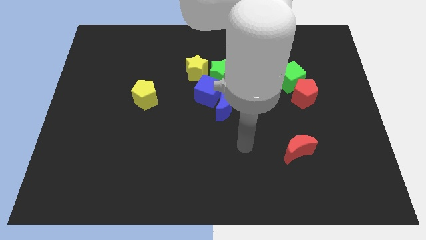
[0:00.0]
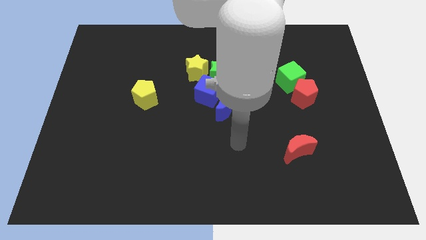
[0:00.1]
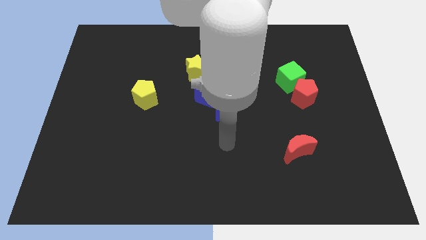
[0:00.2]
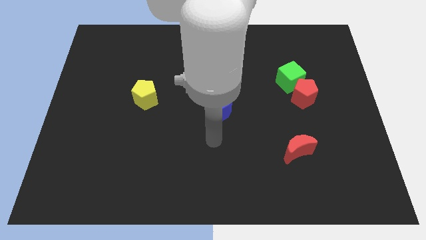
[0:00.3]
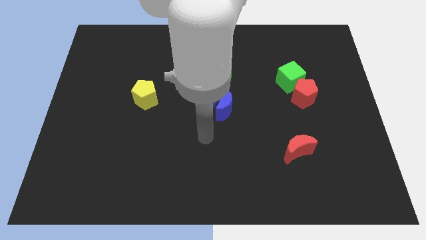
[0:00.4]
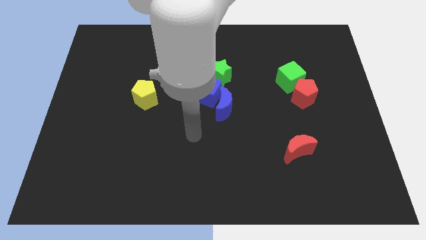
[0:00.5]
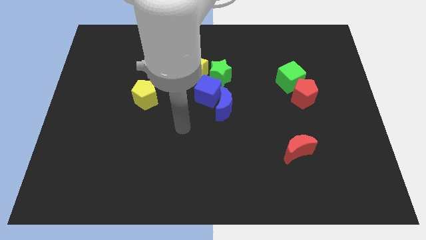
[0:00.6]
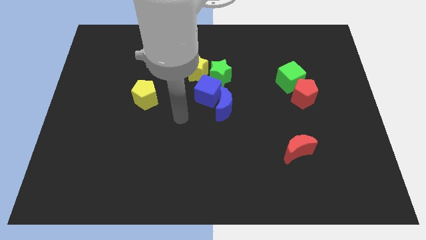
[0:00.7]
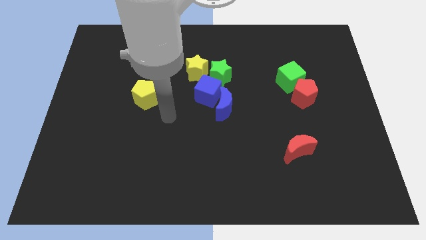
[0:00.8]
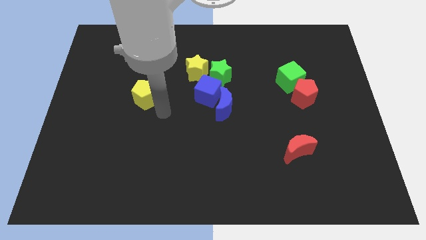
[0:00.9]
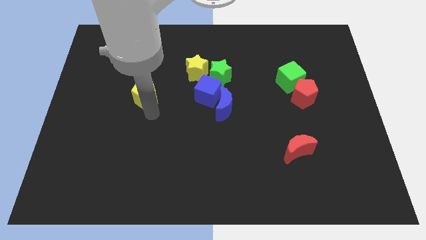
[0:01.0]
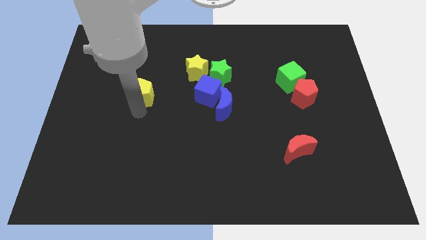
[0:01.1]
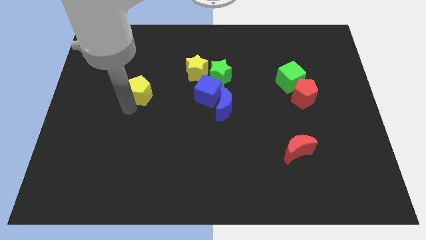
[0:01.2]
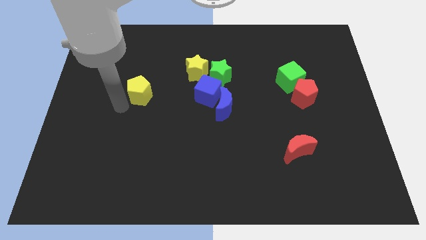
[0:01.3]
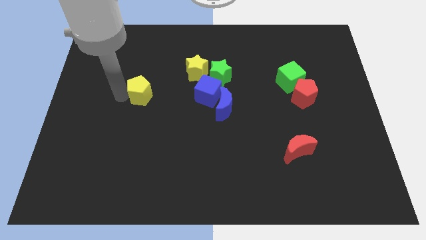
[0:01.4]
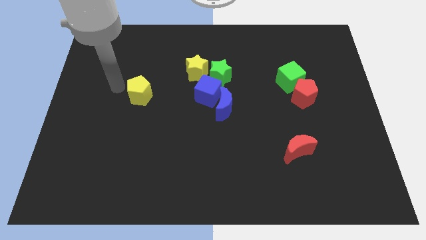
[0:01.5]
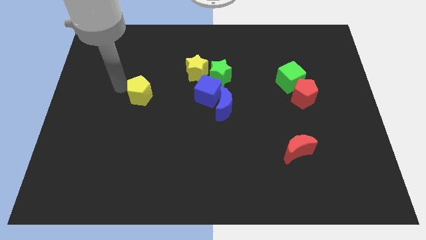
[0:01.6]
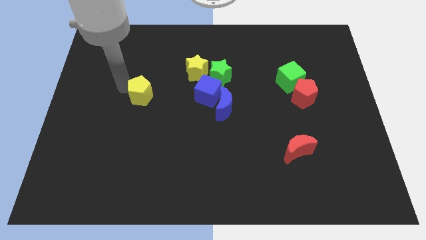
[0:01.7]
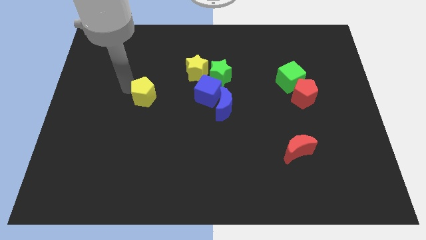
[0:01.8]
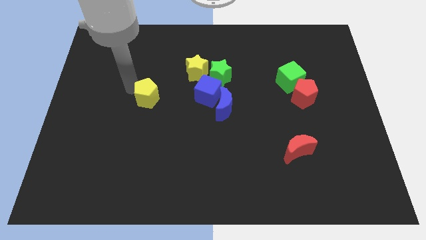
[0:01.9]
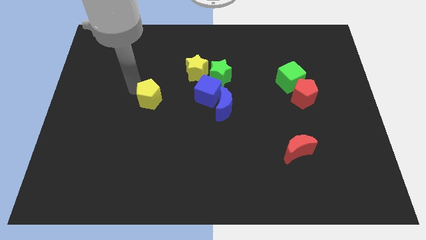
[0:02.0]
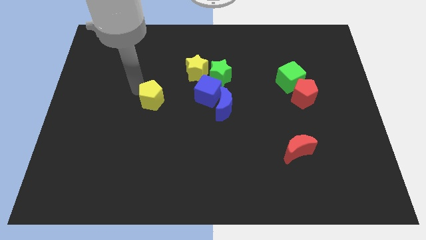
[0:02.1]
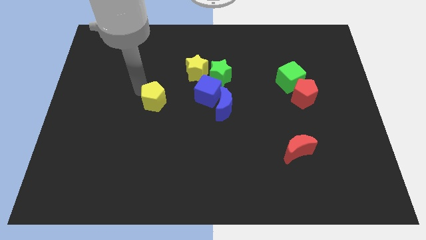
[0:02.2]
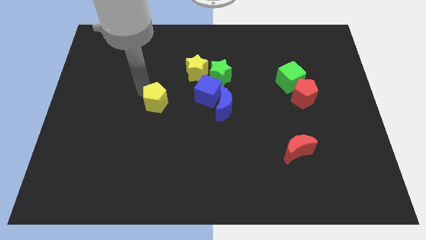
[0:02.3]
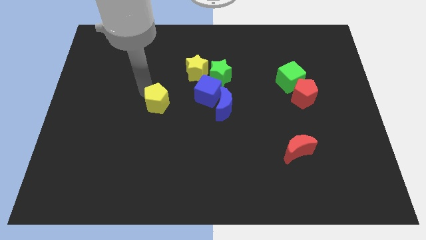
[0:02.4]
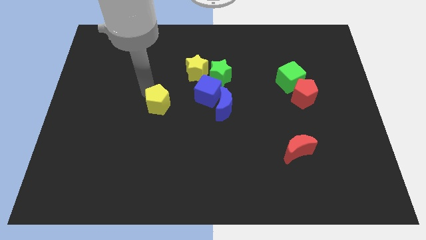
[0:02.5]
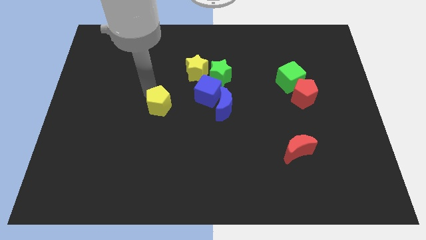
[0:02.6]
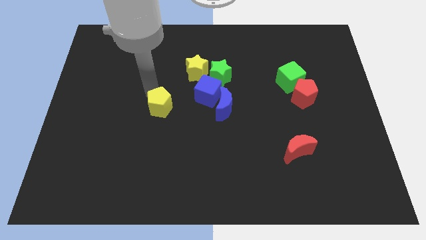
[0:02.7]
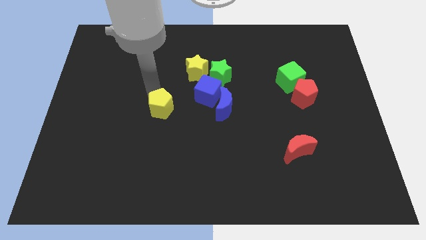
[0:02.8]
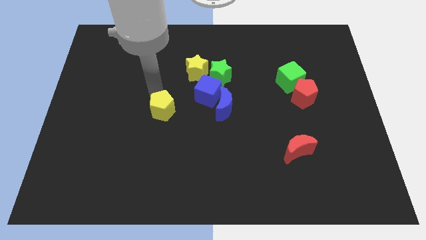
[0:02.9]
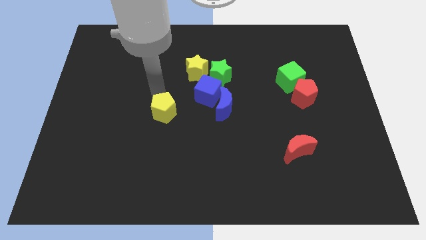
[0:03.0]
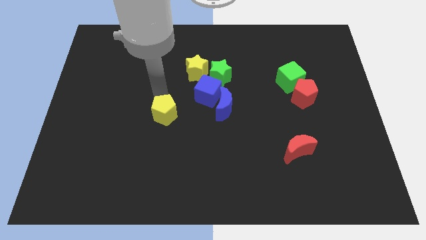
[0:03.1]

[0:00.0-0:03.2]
push the yellow pentagon diagonally downwards and to the right a little bit

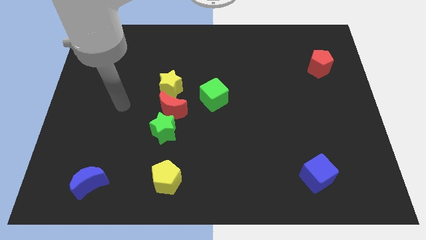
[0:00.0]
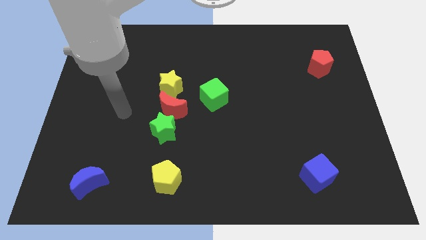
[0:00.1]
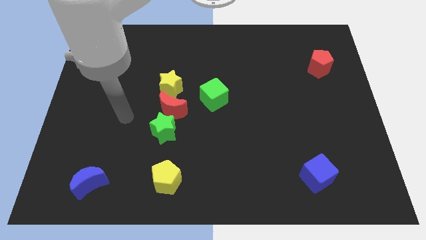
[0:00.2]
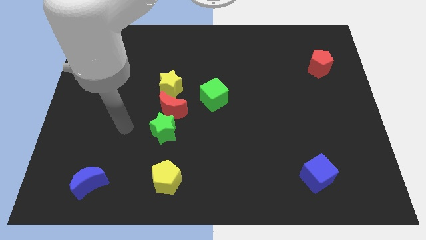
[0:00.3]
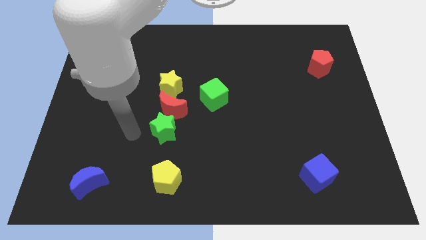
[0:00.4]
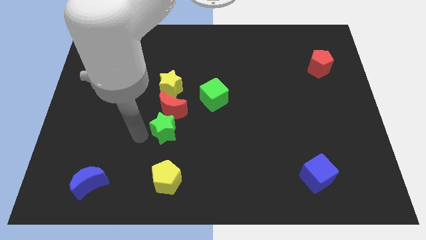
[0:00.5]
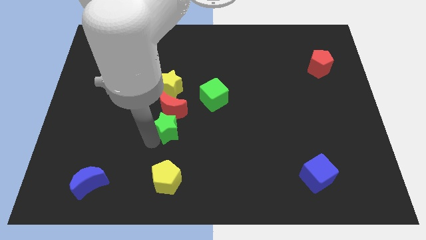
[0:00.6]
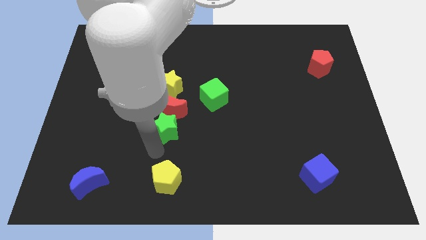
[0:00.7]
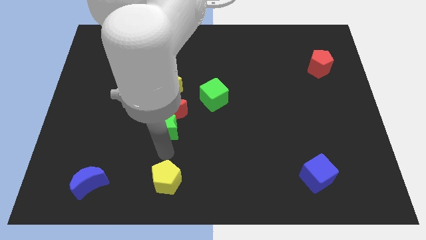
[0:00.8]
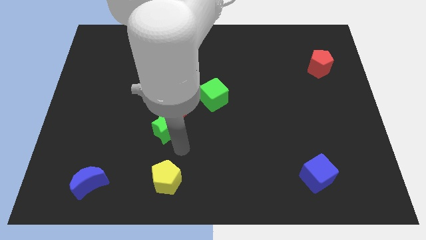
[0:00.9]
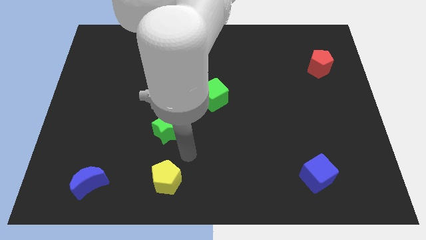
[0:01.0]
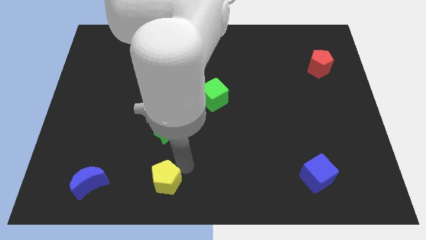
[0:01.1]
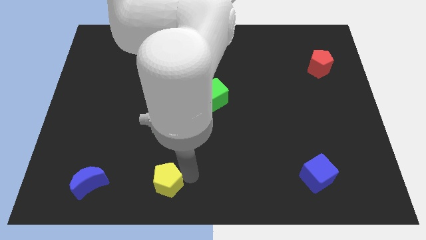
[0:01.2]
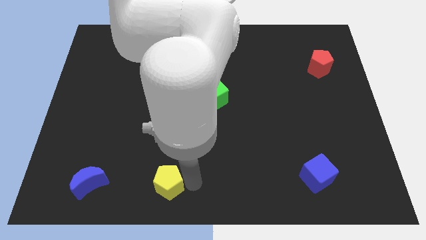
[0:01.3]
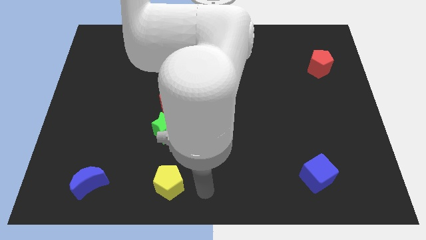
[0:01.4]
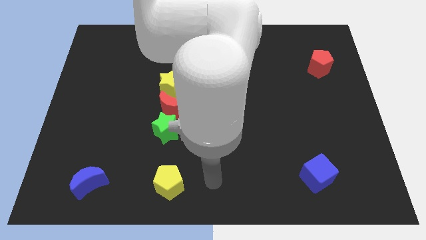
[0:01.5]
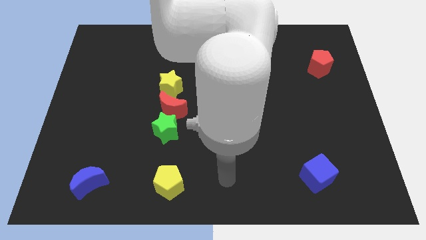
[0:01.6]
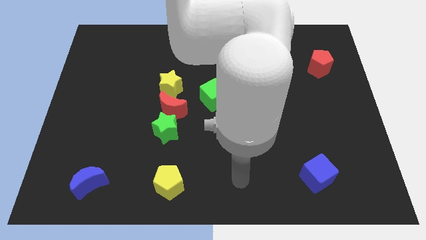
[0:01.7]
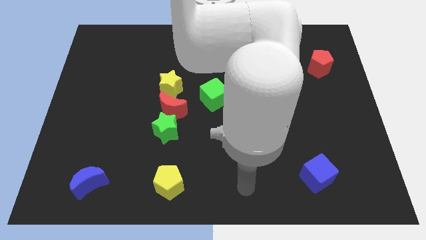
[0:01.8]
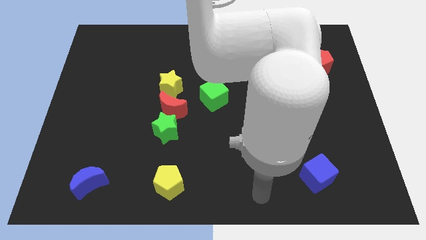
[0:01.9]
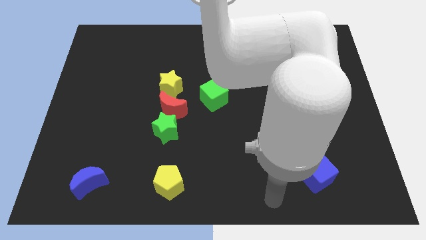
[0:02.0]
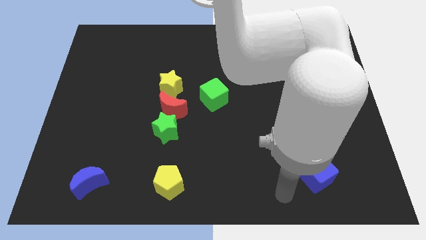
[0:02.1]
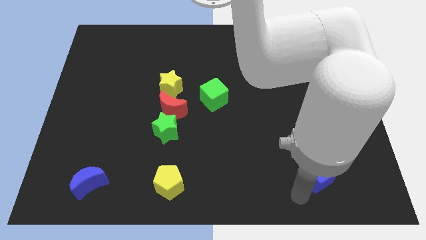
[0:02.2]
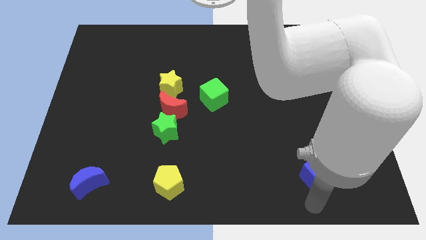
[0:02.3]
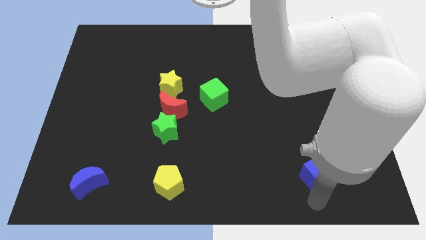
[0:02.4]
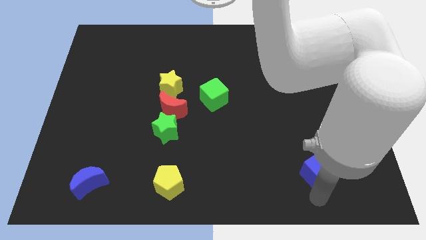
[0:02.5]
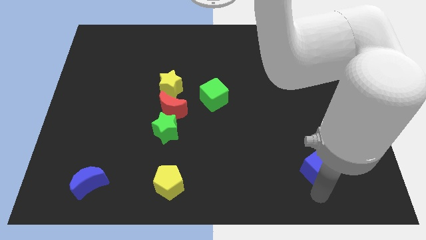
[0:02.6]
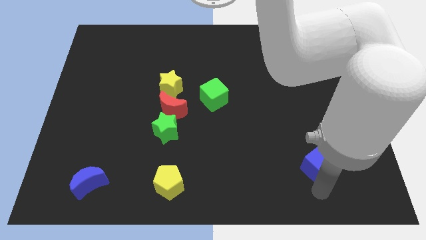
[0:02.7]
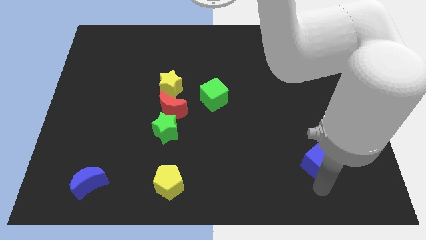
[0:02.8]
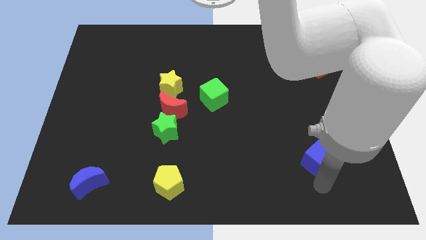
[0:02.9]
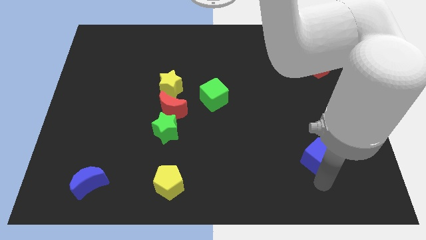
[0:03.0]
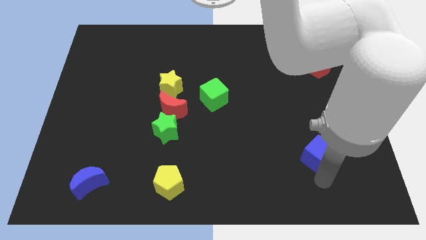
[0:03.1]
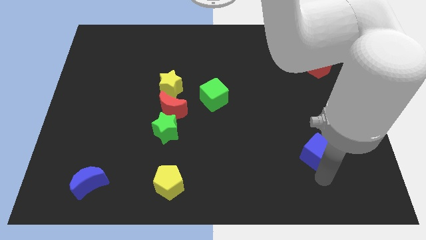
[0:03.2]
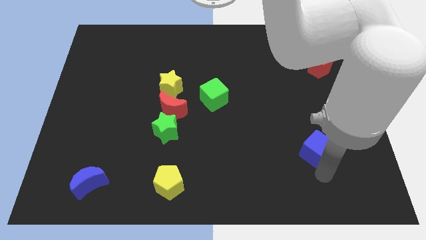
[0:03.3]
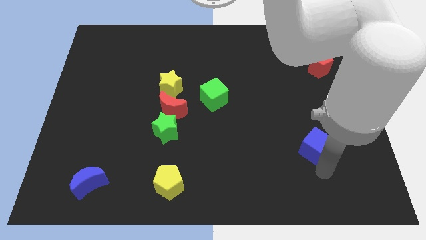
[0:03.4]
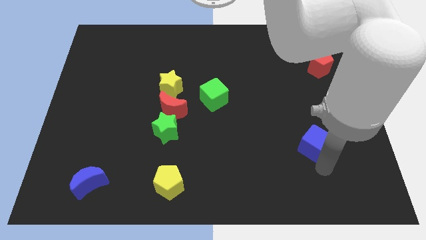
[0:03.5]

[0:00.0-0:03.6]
slightly push the blue cube upwards

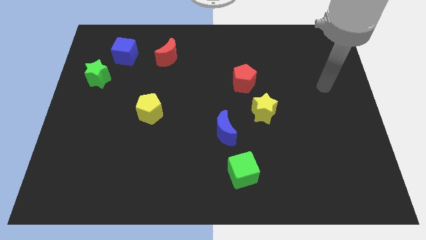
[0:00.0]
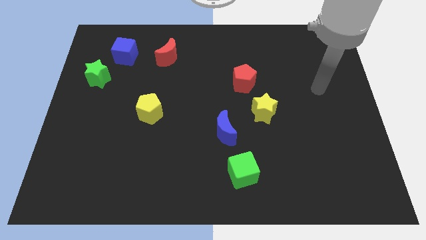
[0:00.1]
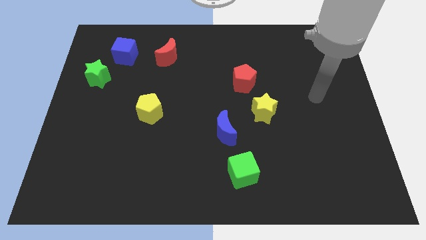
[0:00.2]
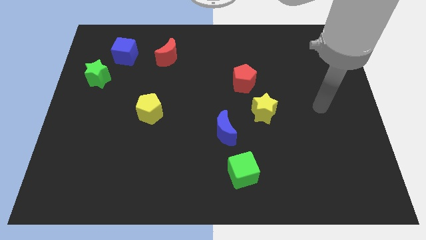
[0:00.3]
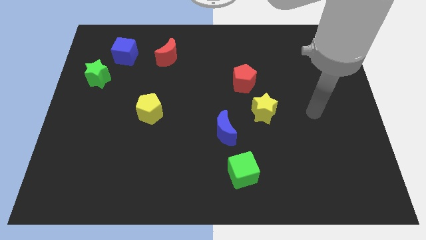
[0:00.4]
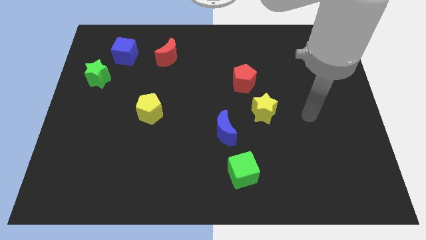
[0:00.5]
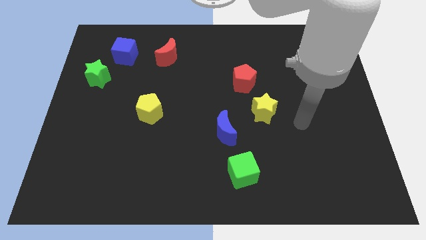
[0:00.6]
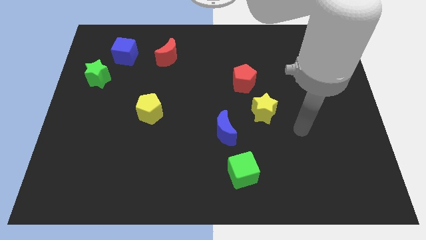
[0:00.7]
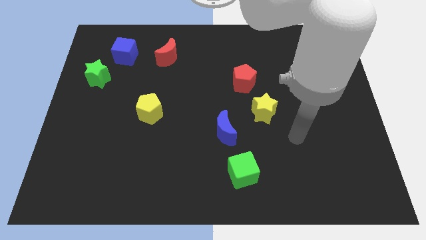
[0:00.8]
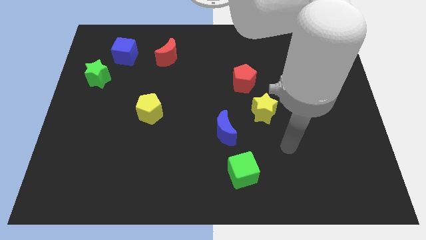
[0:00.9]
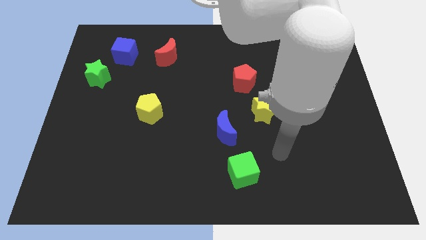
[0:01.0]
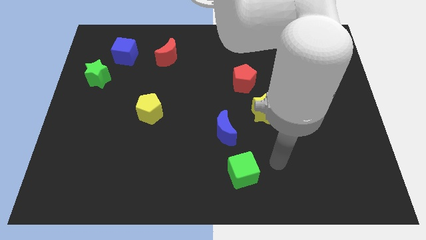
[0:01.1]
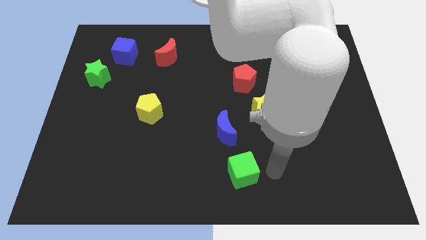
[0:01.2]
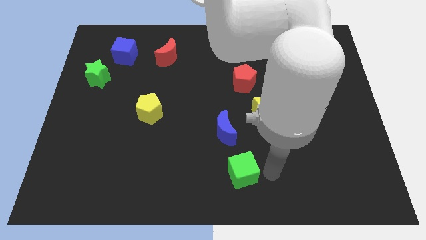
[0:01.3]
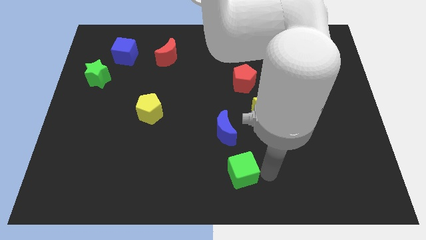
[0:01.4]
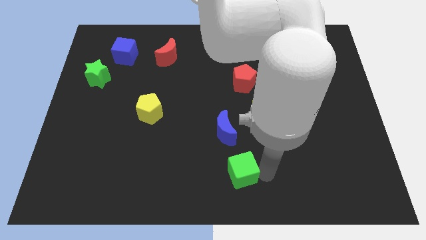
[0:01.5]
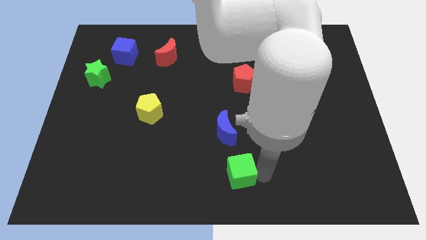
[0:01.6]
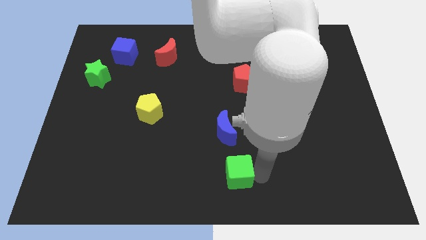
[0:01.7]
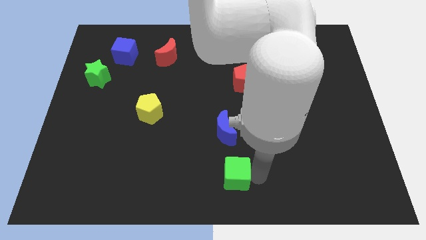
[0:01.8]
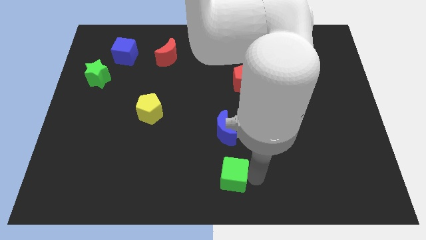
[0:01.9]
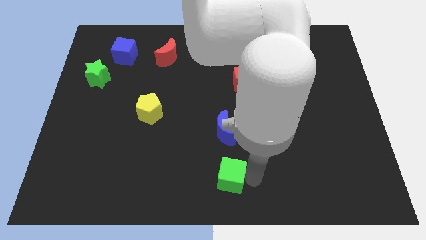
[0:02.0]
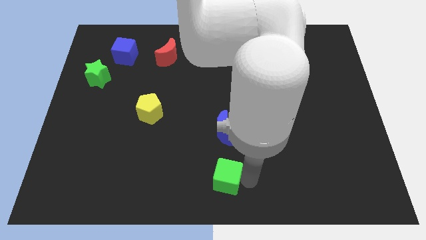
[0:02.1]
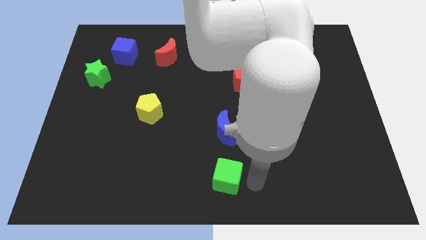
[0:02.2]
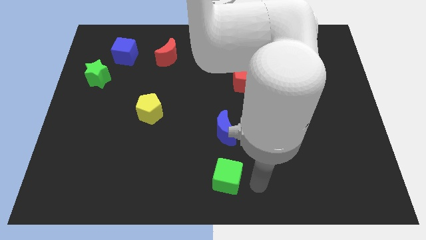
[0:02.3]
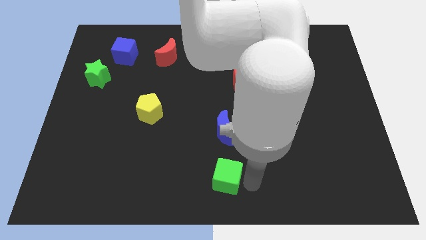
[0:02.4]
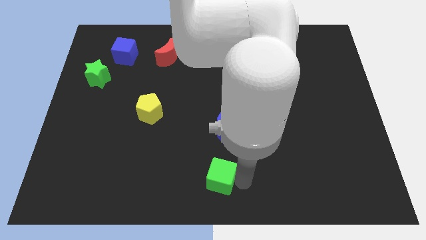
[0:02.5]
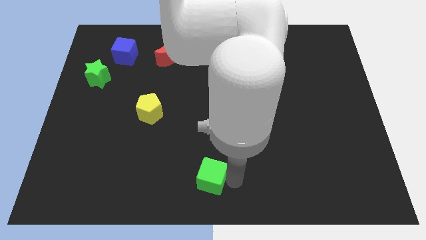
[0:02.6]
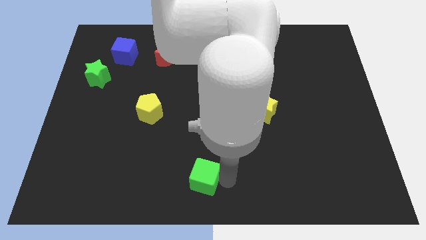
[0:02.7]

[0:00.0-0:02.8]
slightly push the green cube left
